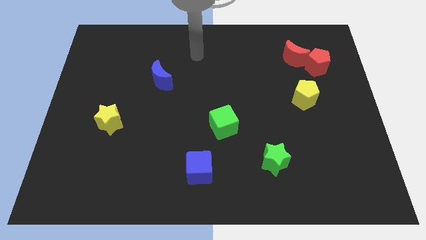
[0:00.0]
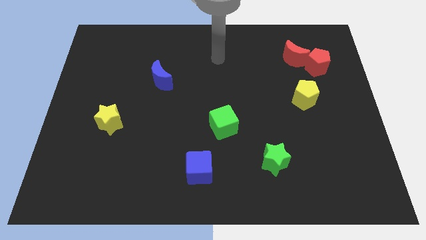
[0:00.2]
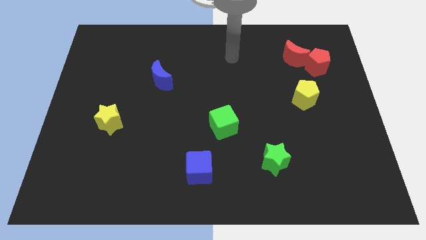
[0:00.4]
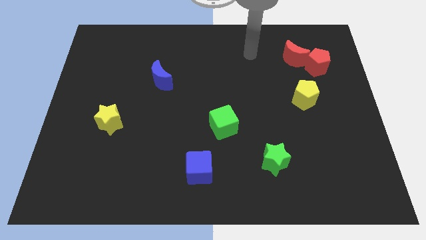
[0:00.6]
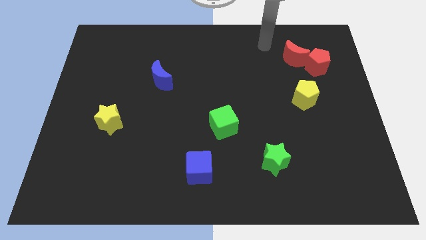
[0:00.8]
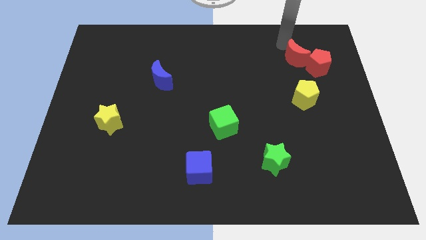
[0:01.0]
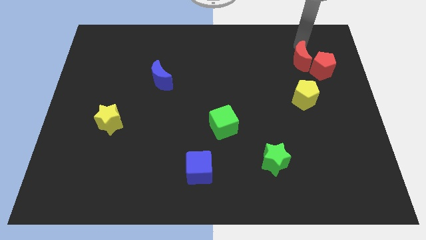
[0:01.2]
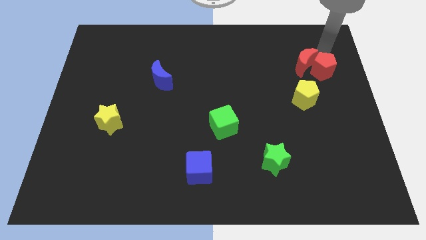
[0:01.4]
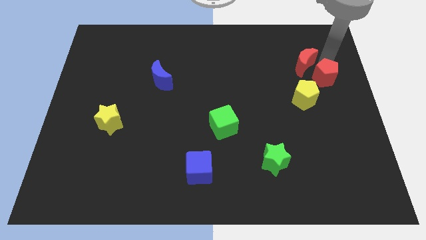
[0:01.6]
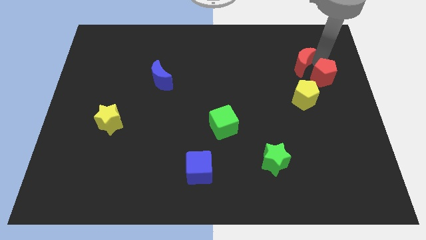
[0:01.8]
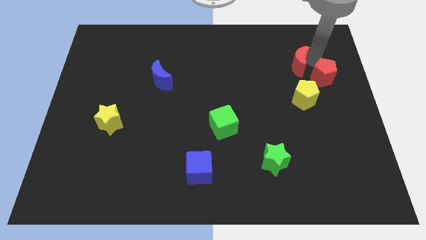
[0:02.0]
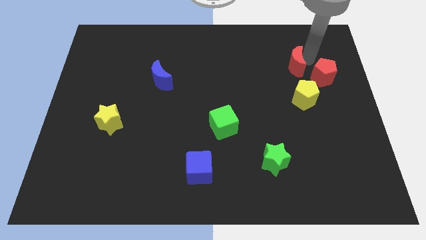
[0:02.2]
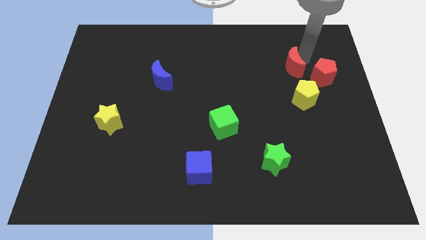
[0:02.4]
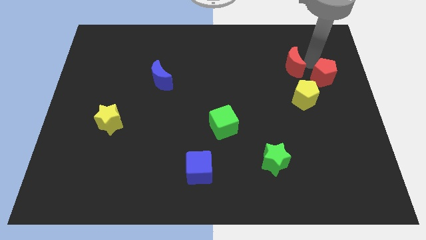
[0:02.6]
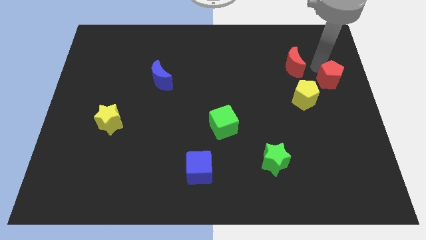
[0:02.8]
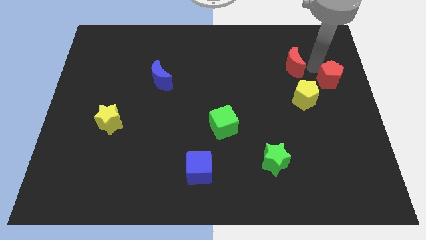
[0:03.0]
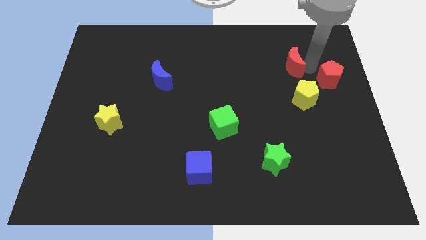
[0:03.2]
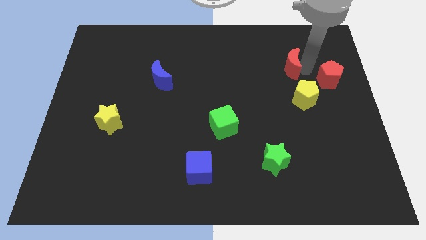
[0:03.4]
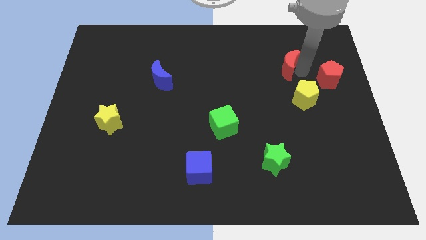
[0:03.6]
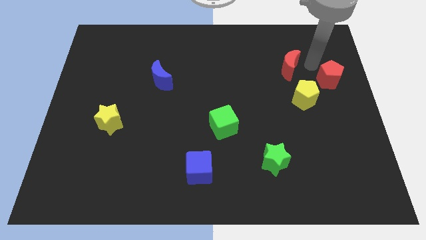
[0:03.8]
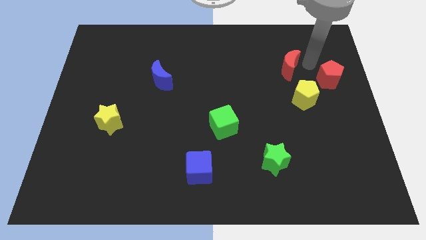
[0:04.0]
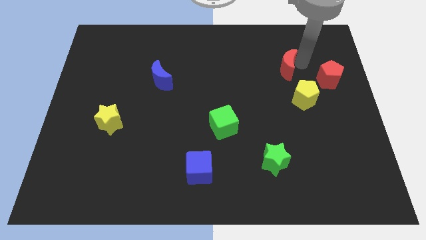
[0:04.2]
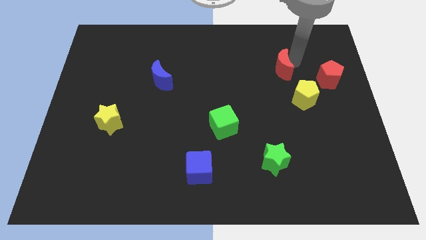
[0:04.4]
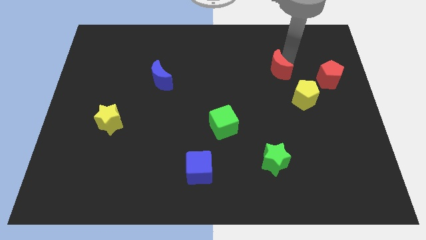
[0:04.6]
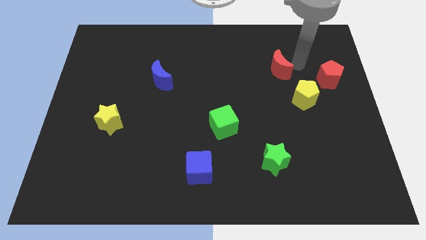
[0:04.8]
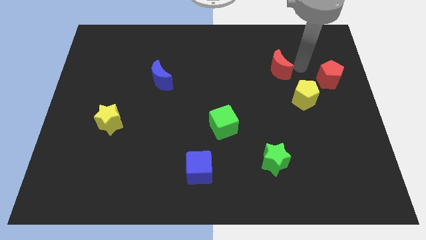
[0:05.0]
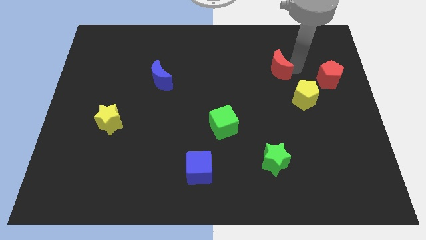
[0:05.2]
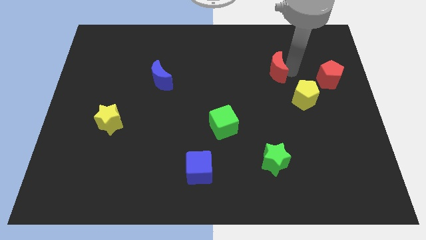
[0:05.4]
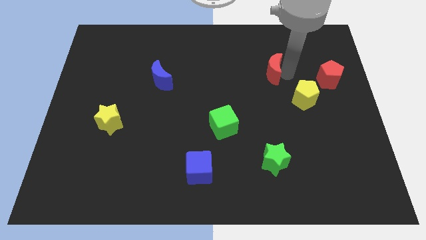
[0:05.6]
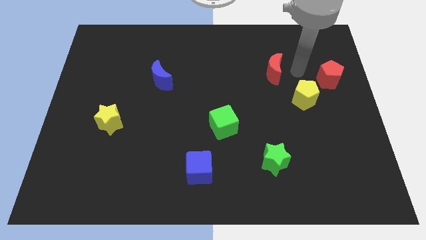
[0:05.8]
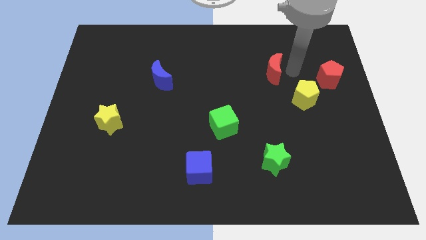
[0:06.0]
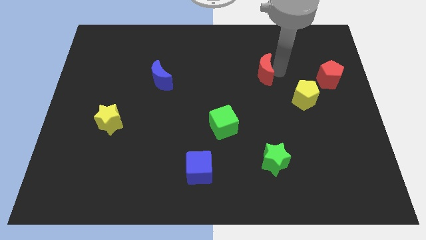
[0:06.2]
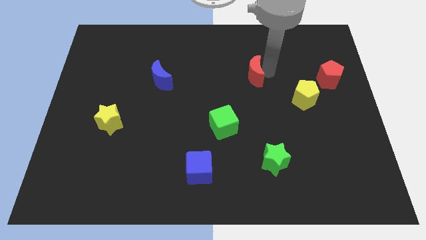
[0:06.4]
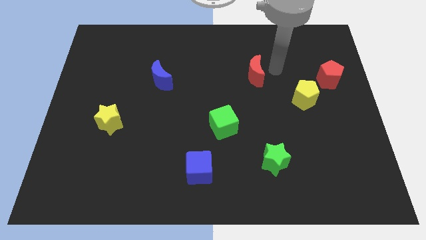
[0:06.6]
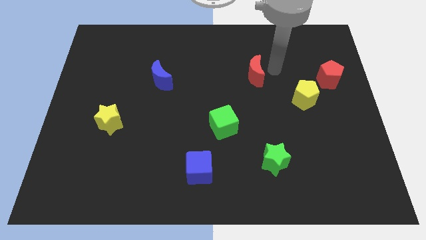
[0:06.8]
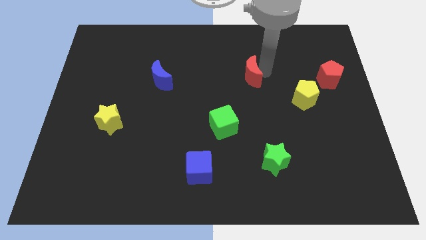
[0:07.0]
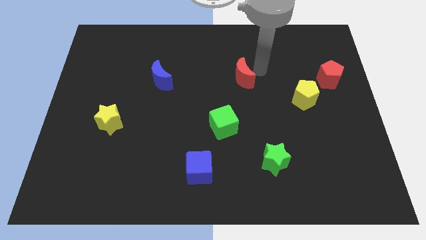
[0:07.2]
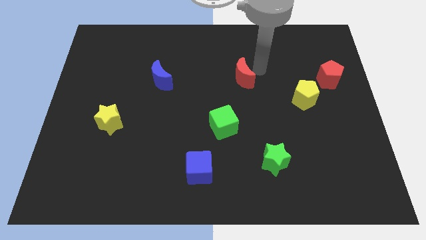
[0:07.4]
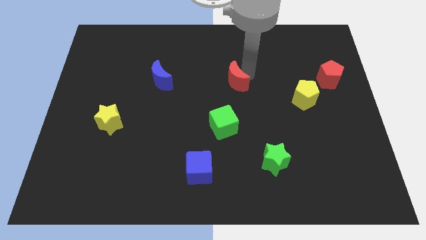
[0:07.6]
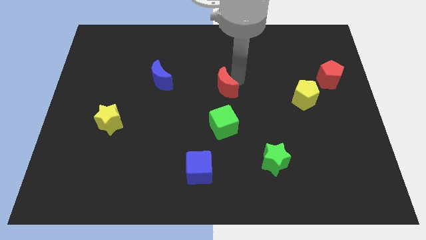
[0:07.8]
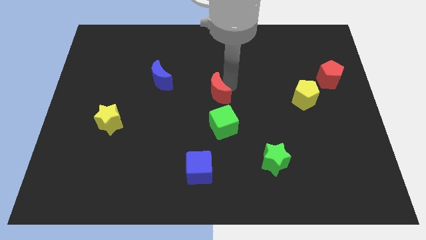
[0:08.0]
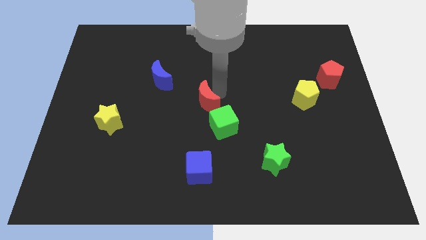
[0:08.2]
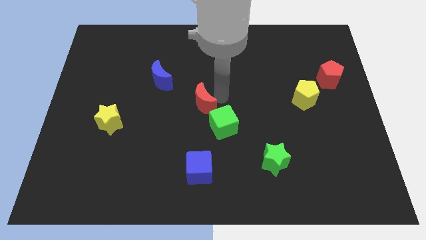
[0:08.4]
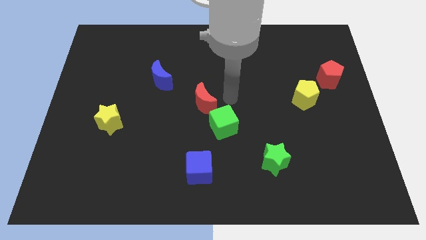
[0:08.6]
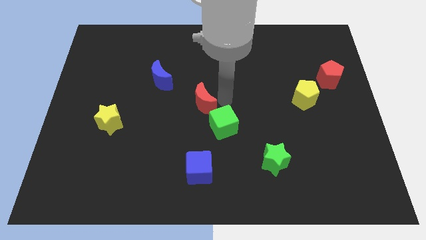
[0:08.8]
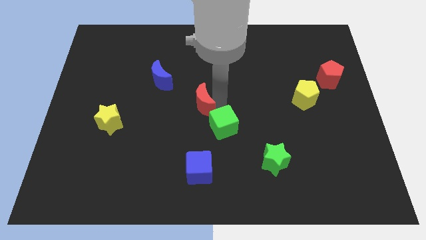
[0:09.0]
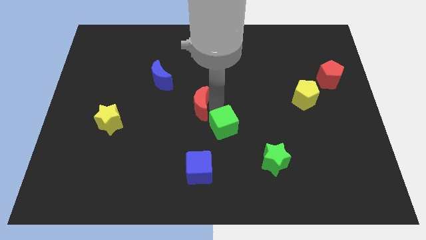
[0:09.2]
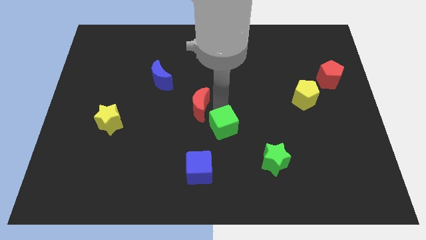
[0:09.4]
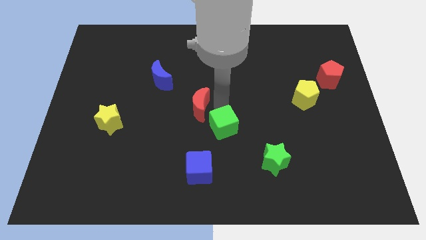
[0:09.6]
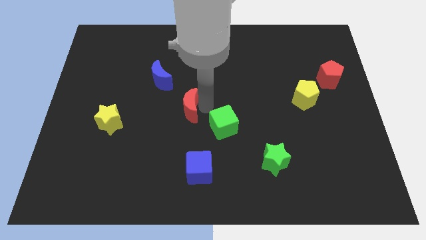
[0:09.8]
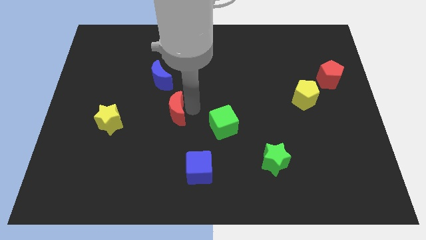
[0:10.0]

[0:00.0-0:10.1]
push the red moon below the blue moon

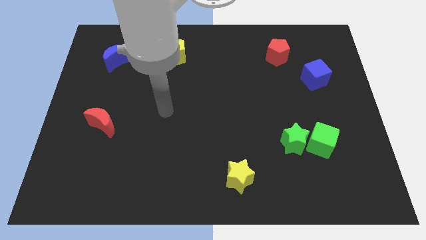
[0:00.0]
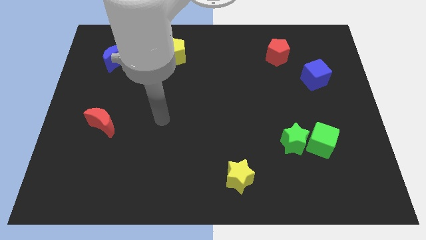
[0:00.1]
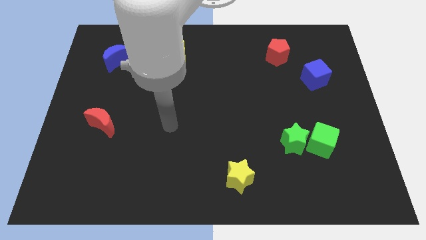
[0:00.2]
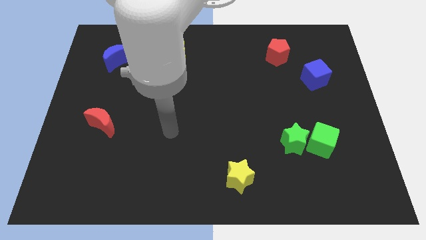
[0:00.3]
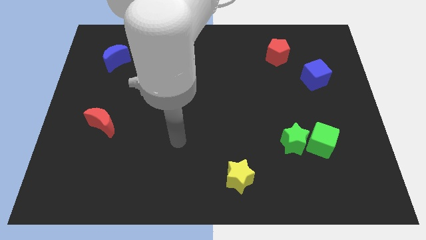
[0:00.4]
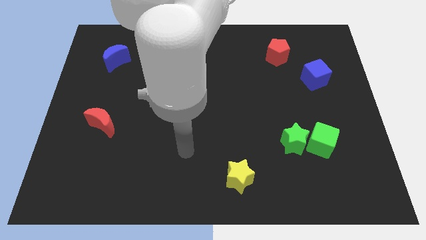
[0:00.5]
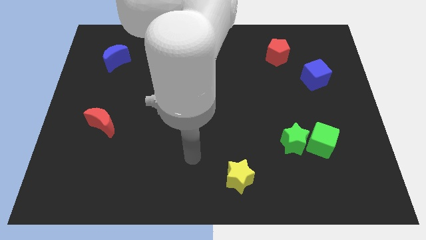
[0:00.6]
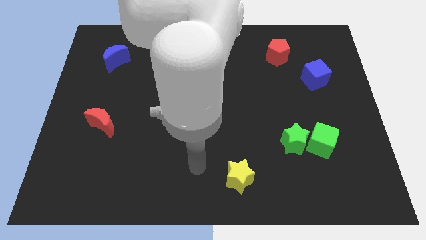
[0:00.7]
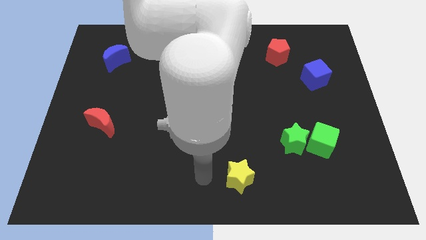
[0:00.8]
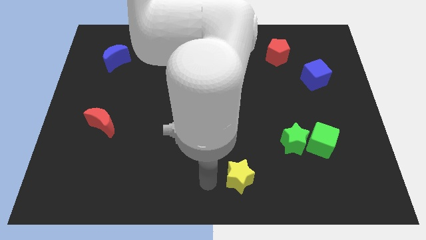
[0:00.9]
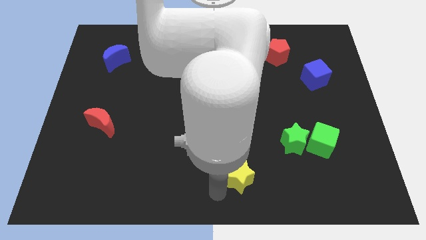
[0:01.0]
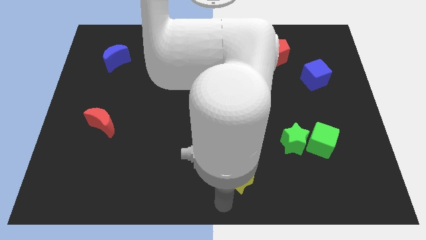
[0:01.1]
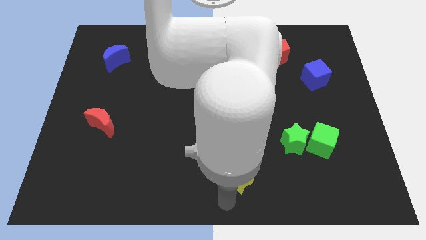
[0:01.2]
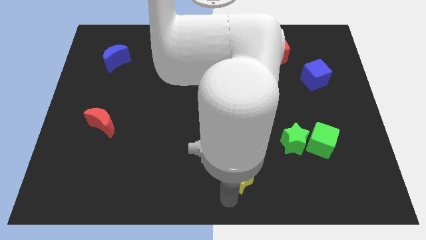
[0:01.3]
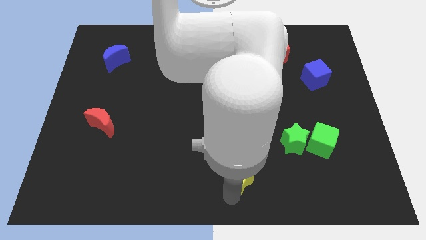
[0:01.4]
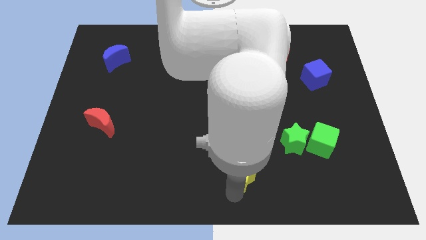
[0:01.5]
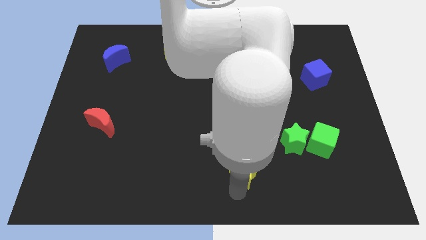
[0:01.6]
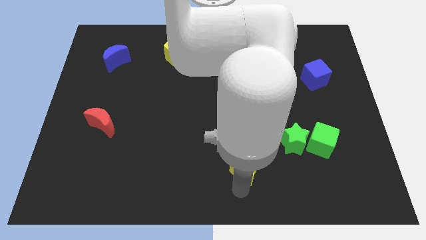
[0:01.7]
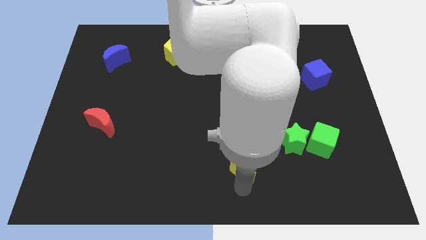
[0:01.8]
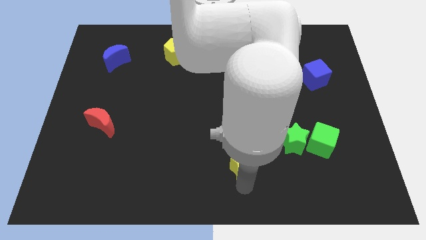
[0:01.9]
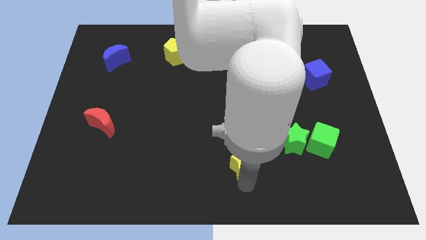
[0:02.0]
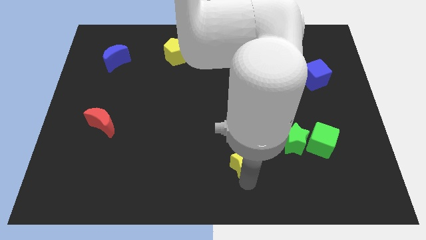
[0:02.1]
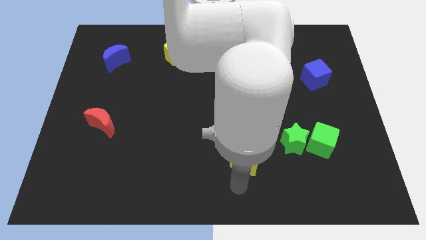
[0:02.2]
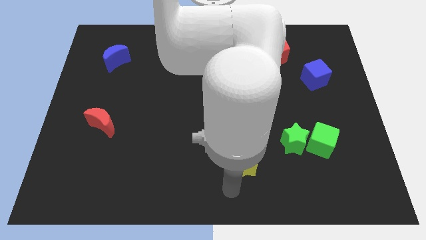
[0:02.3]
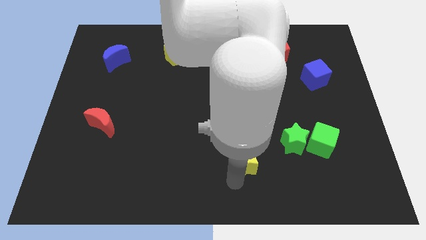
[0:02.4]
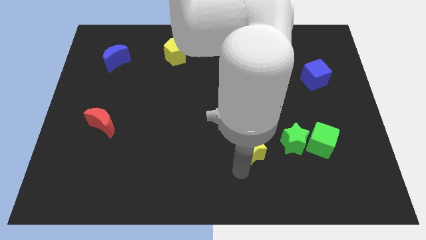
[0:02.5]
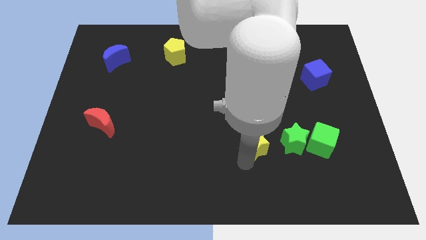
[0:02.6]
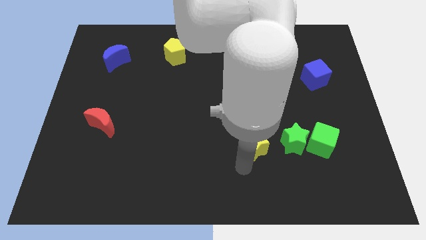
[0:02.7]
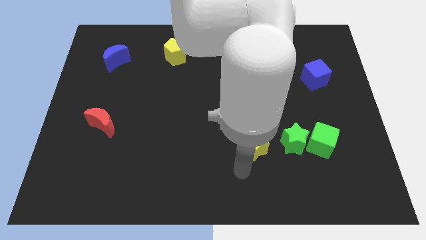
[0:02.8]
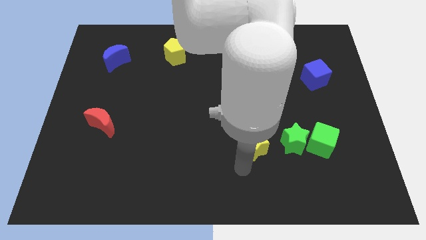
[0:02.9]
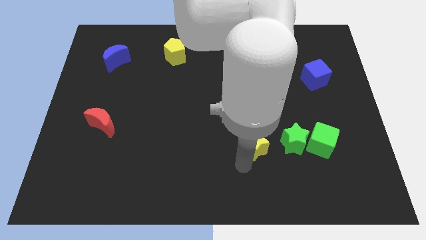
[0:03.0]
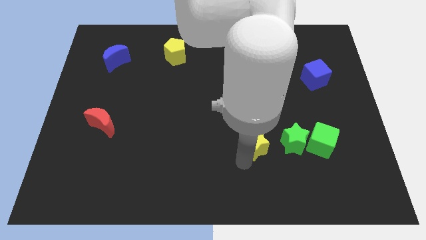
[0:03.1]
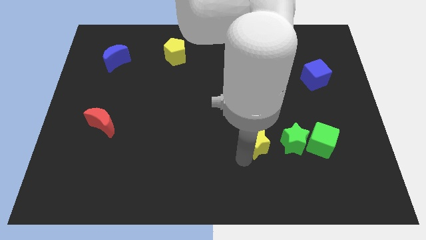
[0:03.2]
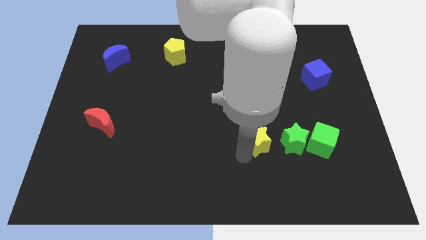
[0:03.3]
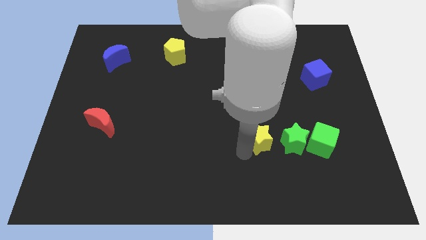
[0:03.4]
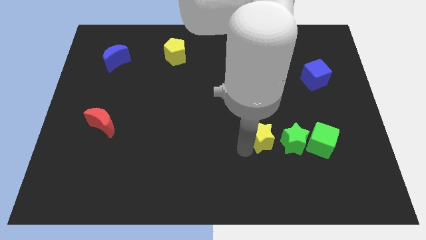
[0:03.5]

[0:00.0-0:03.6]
move the yellow star diagonally up and to the left of the green star
